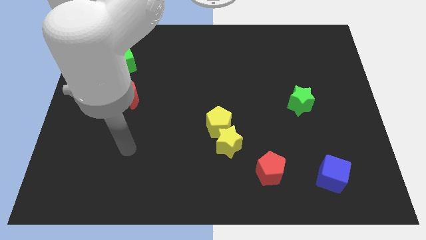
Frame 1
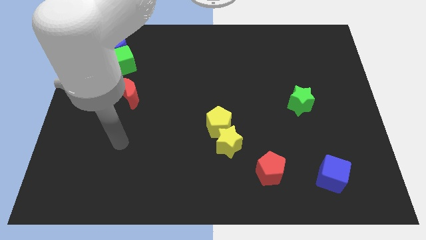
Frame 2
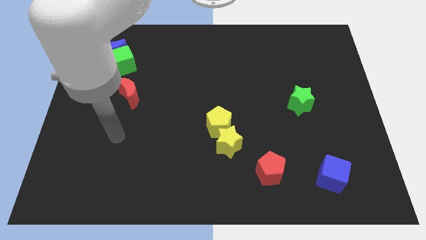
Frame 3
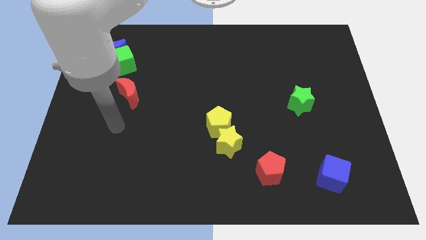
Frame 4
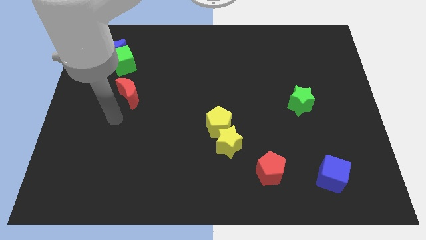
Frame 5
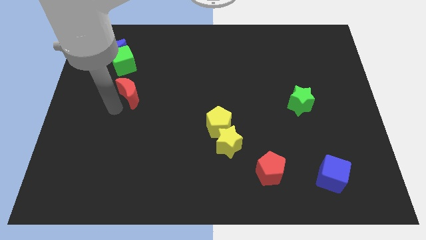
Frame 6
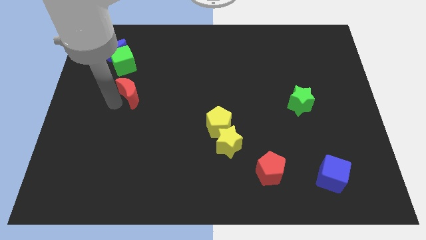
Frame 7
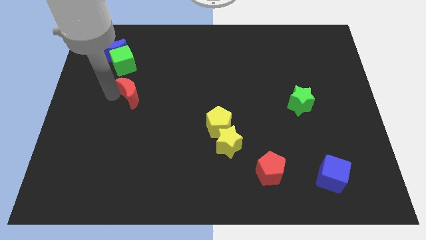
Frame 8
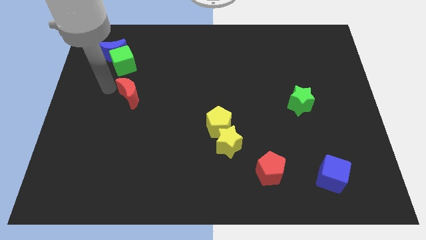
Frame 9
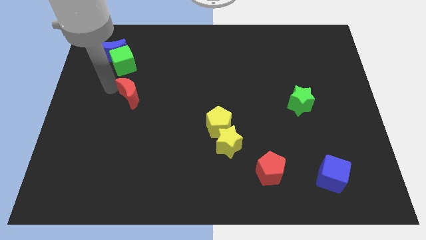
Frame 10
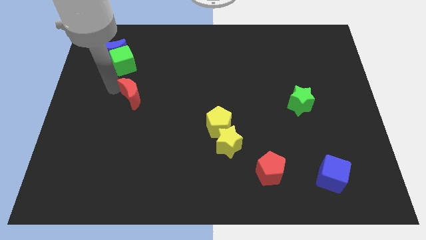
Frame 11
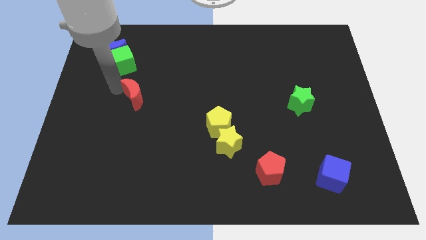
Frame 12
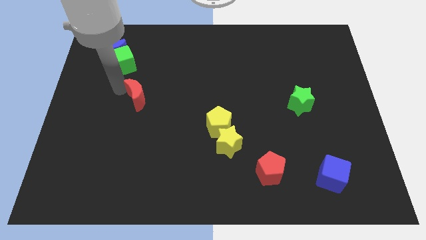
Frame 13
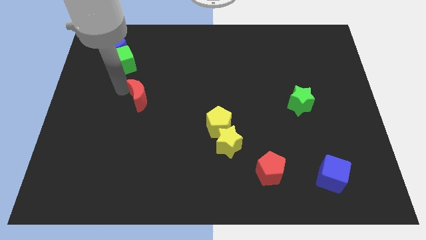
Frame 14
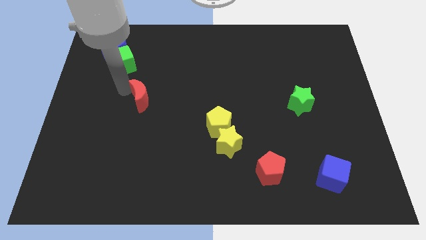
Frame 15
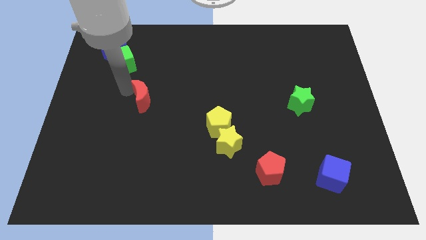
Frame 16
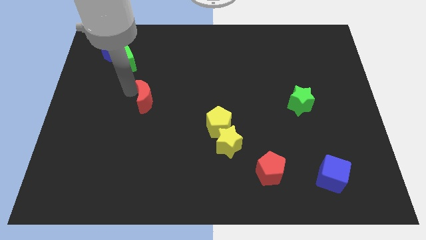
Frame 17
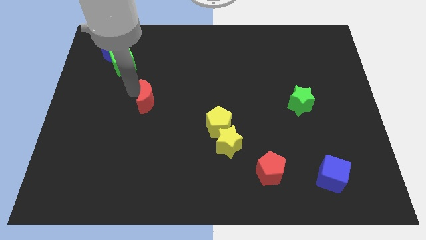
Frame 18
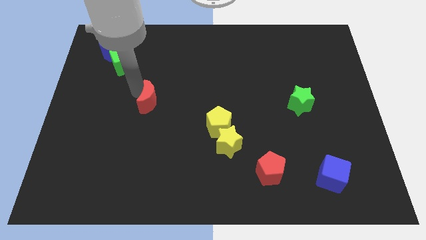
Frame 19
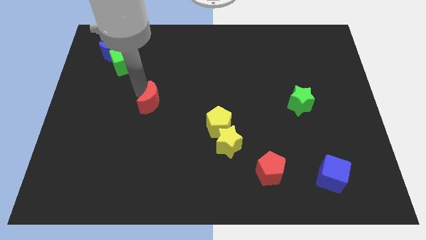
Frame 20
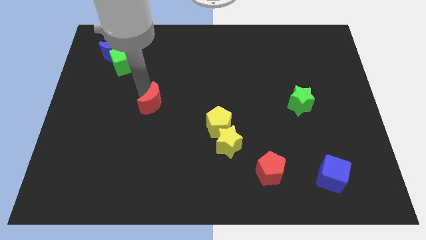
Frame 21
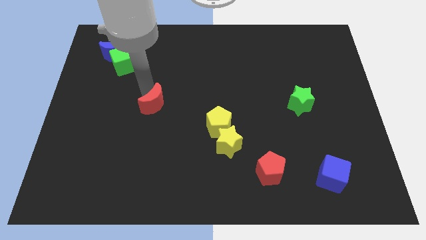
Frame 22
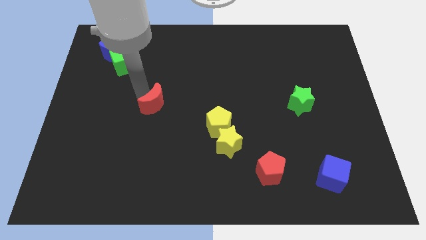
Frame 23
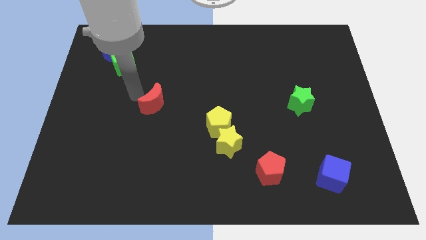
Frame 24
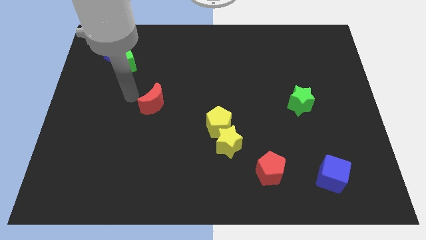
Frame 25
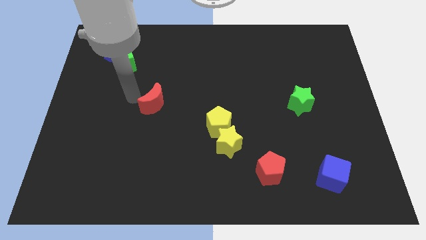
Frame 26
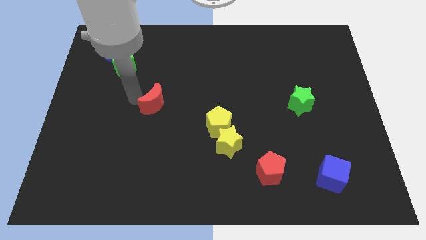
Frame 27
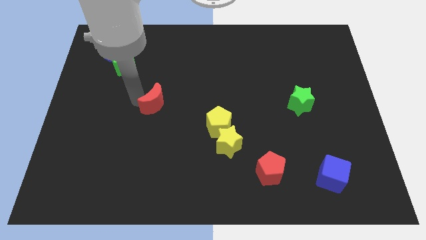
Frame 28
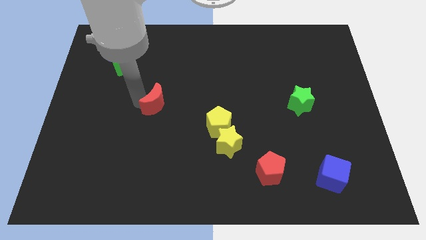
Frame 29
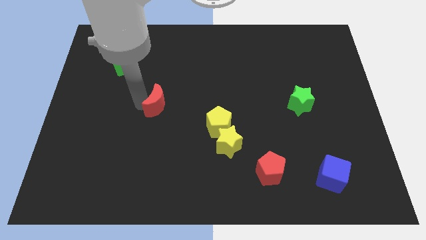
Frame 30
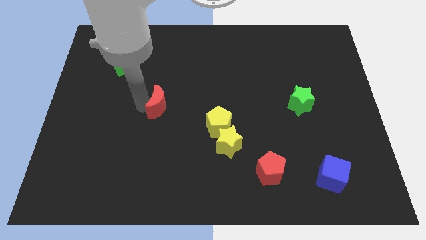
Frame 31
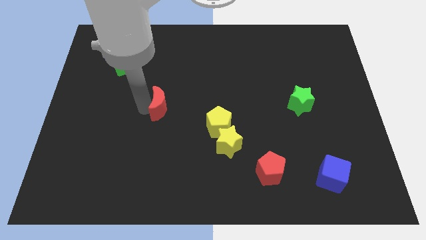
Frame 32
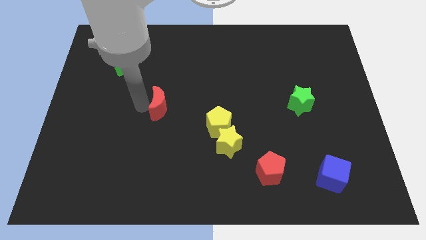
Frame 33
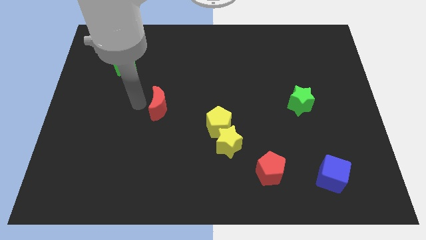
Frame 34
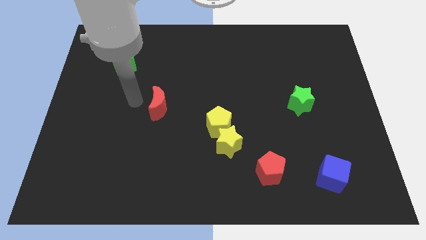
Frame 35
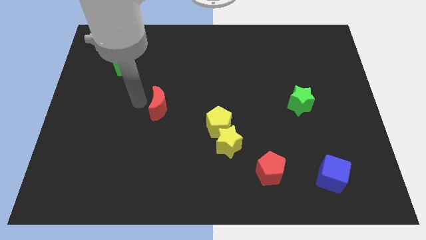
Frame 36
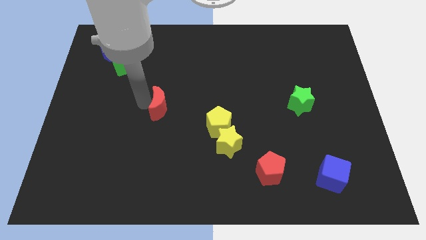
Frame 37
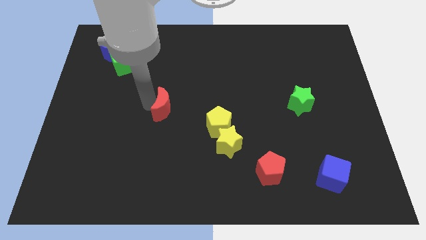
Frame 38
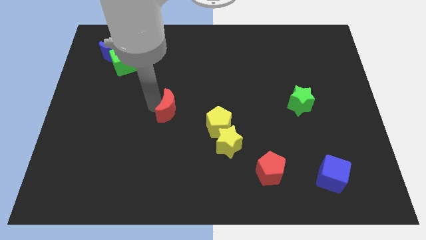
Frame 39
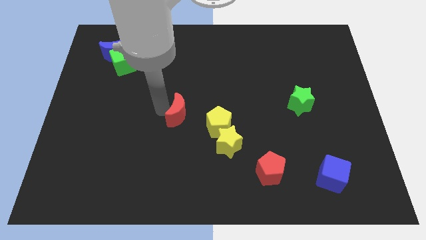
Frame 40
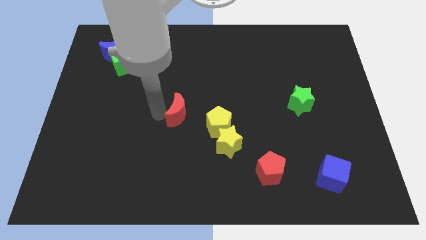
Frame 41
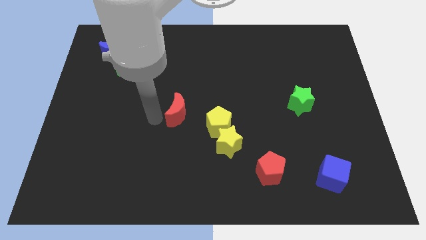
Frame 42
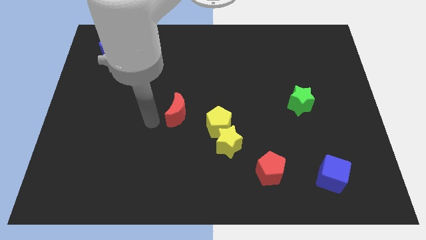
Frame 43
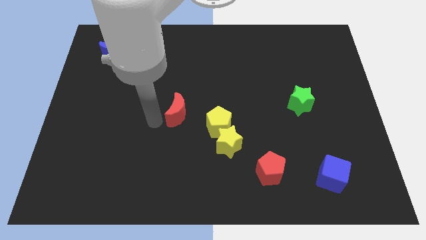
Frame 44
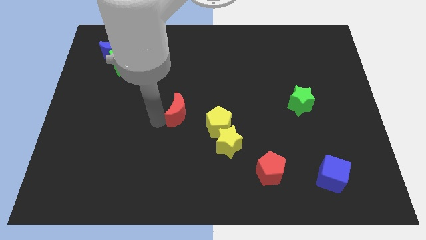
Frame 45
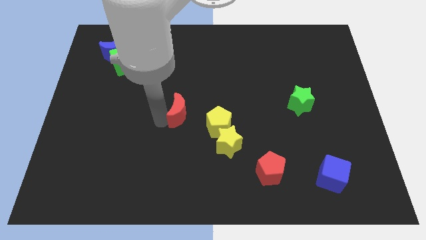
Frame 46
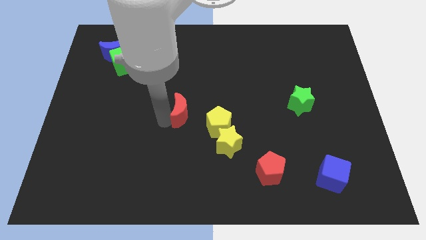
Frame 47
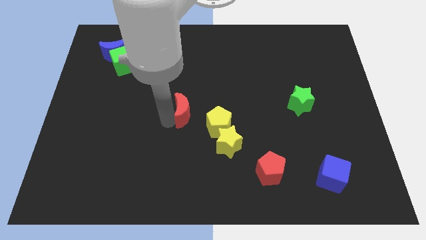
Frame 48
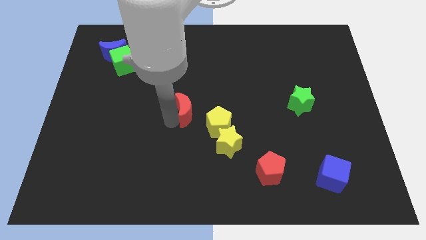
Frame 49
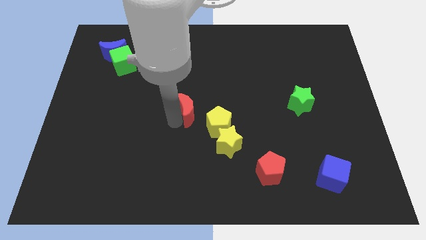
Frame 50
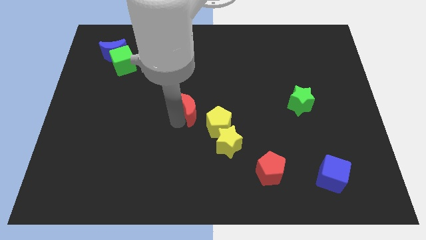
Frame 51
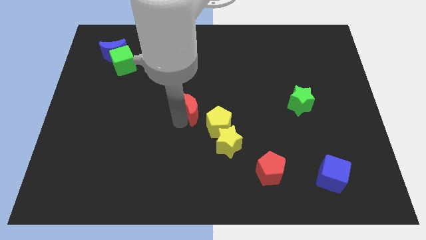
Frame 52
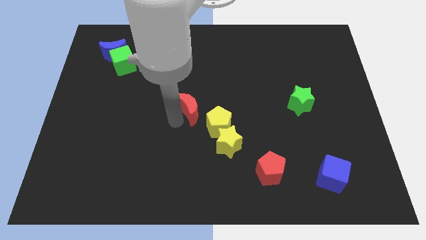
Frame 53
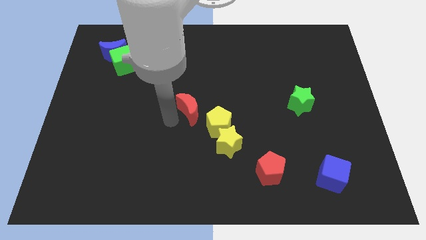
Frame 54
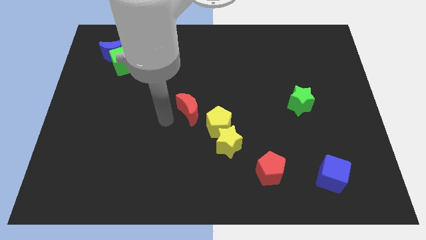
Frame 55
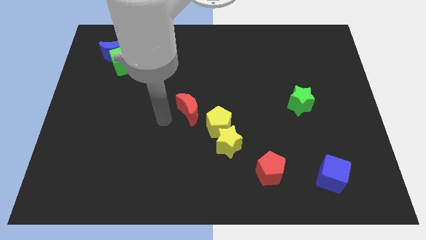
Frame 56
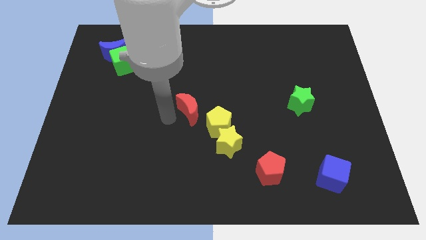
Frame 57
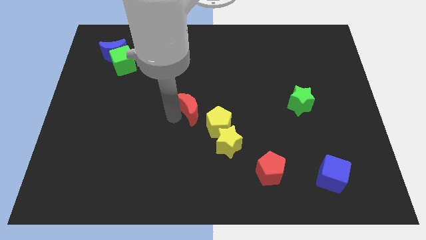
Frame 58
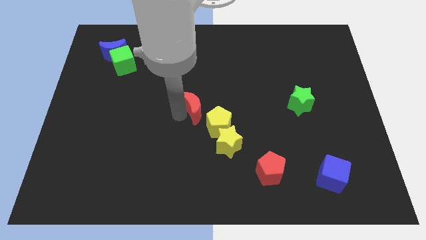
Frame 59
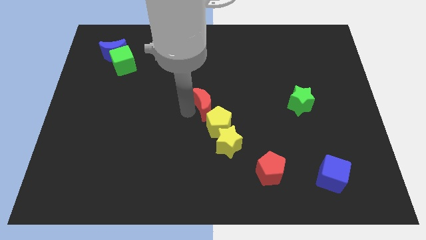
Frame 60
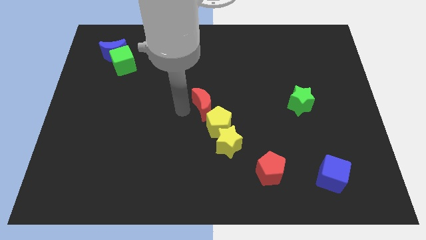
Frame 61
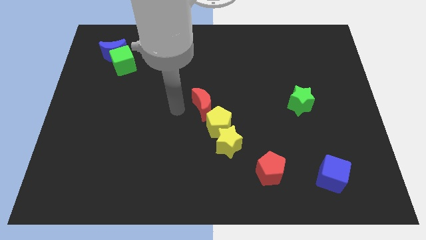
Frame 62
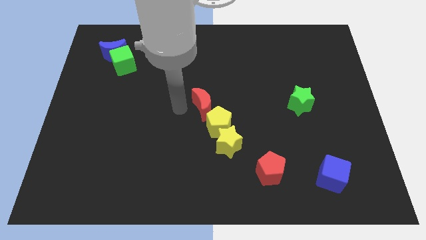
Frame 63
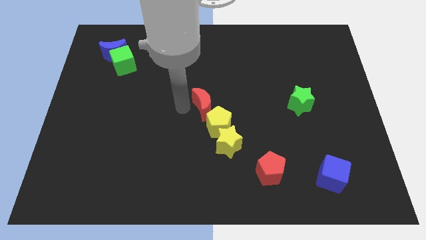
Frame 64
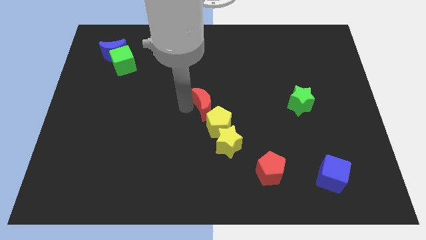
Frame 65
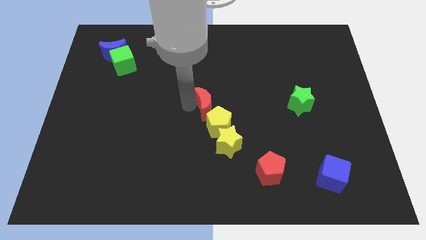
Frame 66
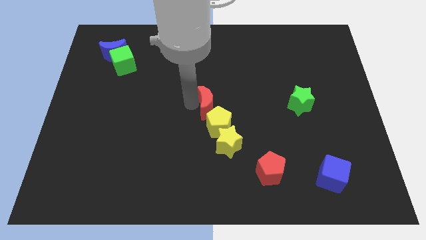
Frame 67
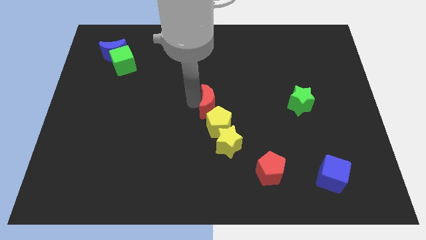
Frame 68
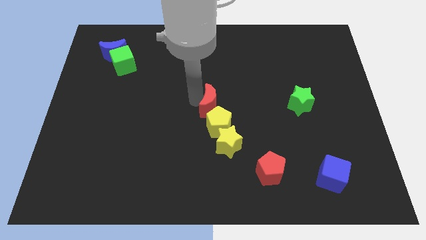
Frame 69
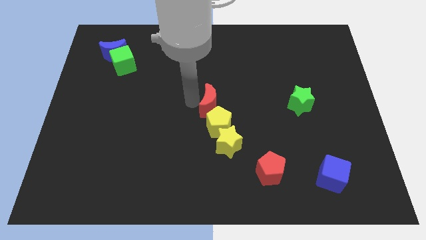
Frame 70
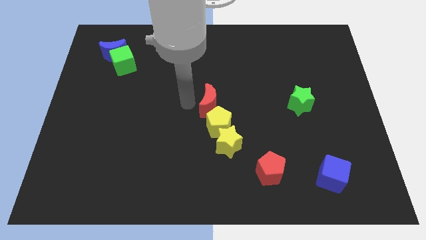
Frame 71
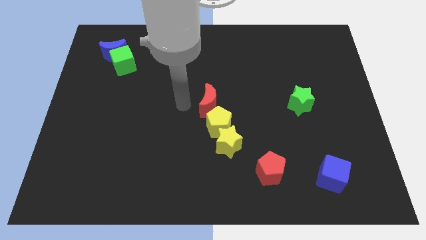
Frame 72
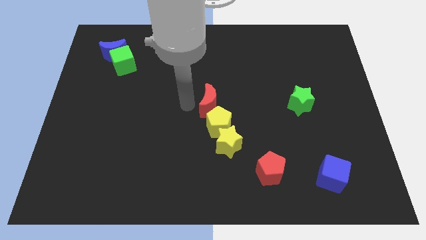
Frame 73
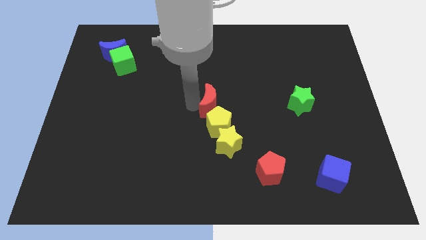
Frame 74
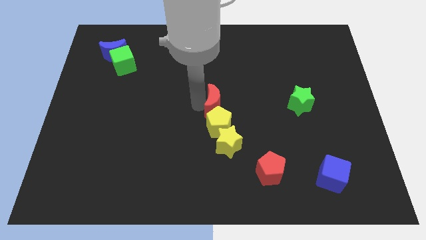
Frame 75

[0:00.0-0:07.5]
move the red moon right

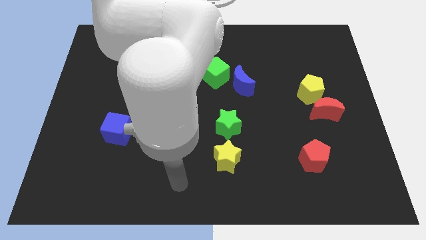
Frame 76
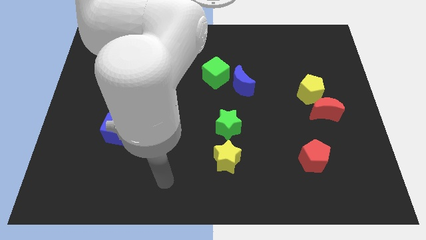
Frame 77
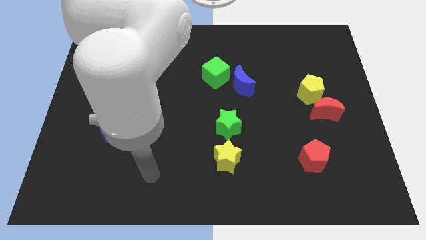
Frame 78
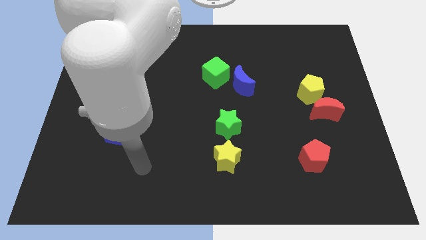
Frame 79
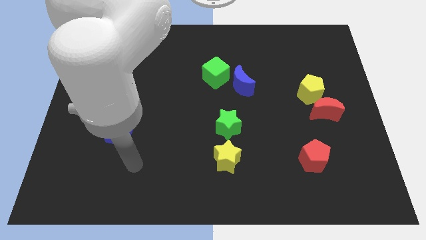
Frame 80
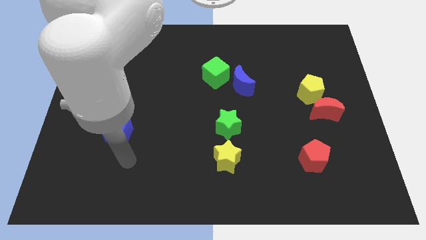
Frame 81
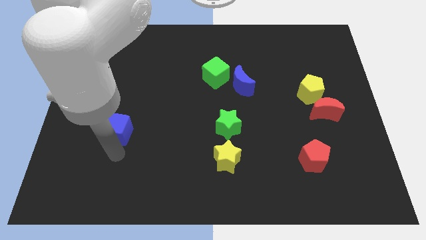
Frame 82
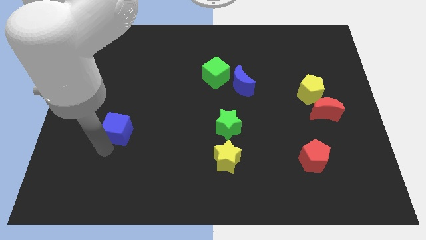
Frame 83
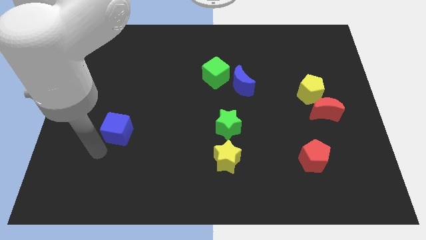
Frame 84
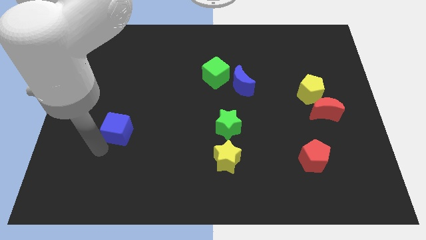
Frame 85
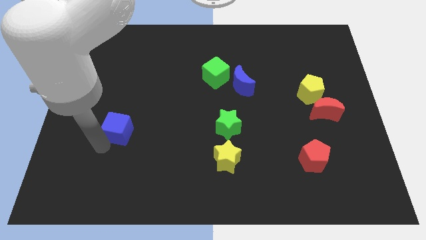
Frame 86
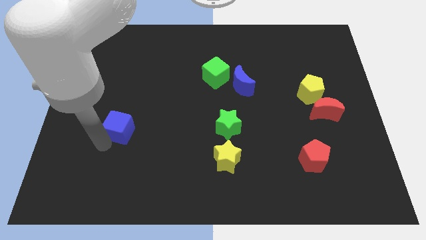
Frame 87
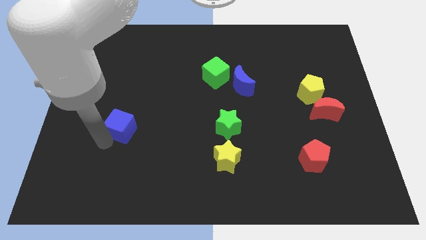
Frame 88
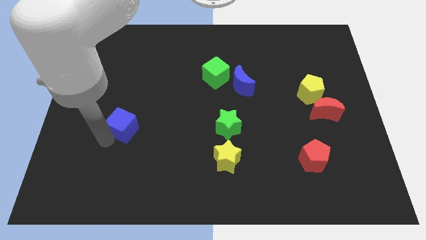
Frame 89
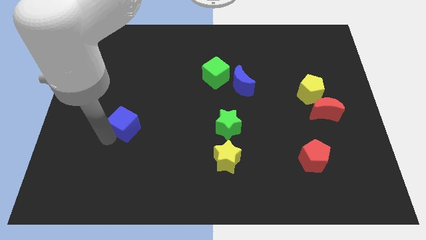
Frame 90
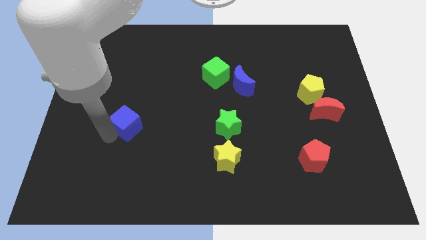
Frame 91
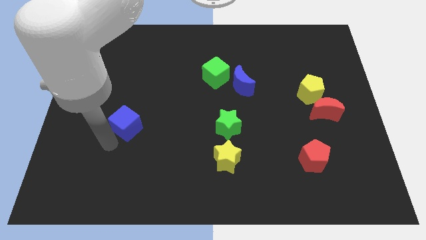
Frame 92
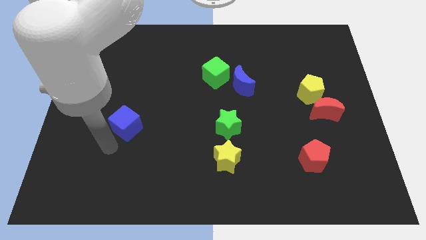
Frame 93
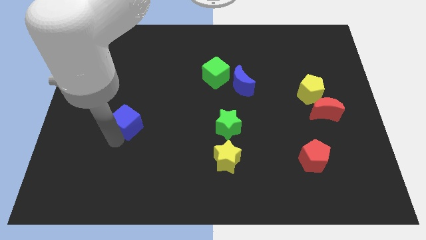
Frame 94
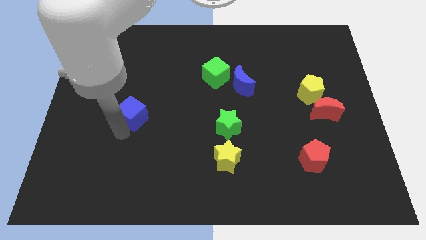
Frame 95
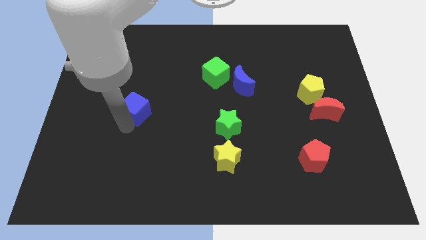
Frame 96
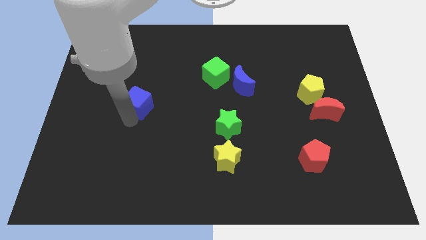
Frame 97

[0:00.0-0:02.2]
slightly push the blue cube upwards and right
